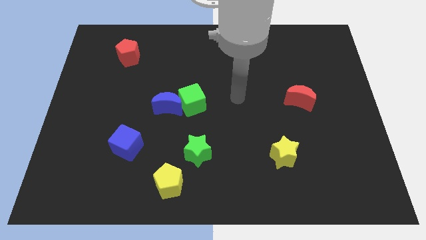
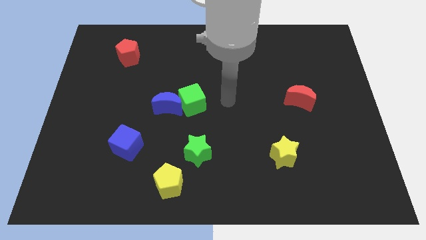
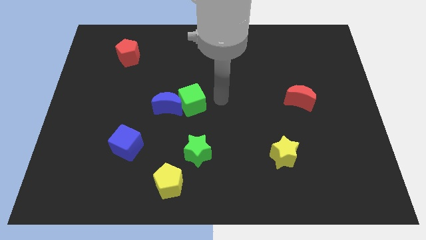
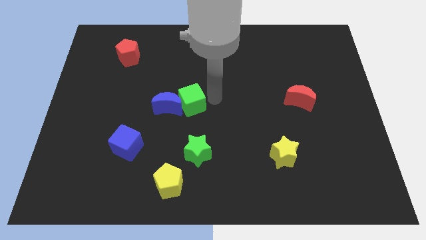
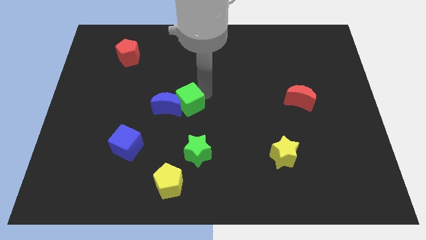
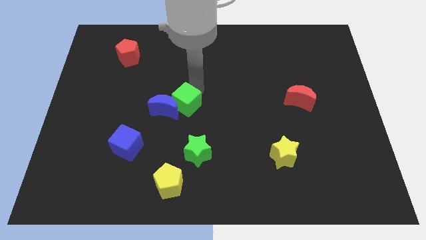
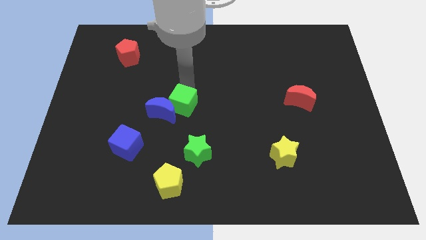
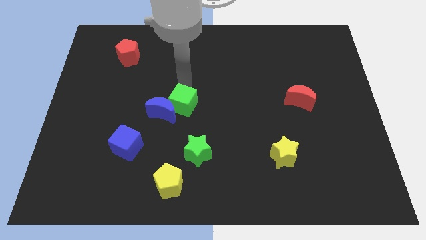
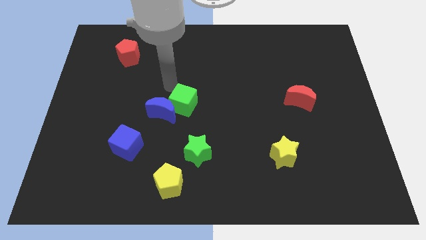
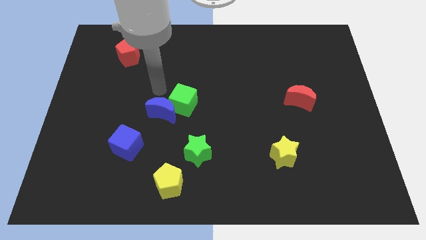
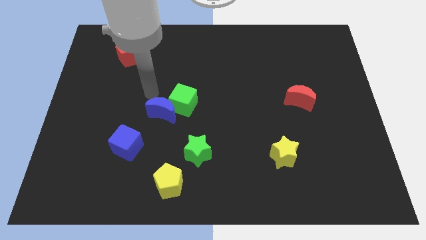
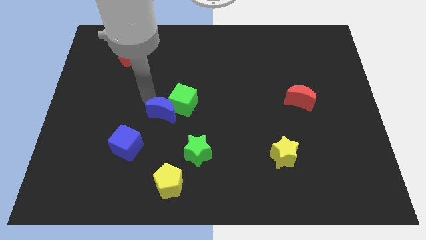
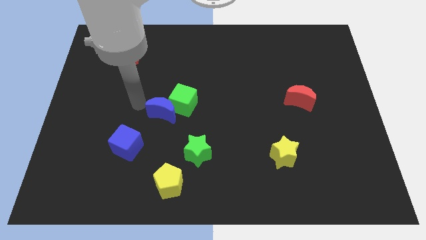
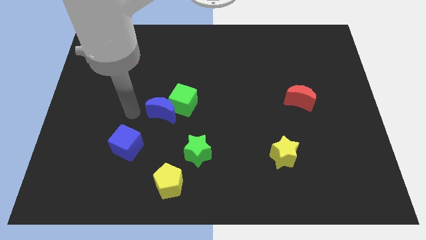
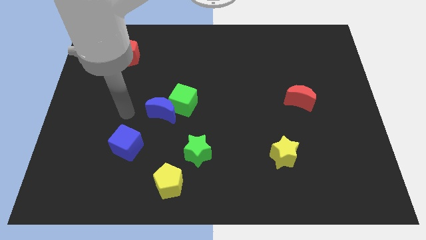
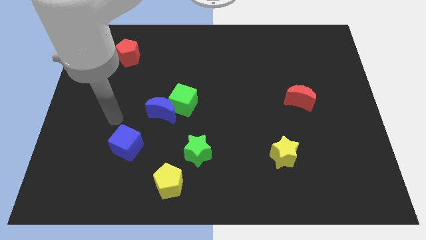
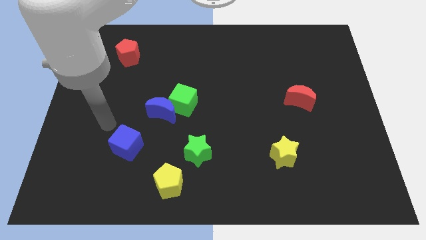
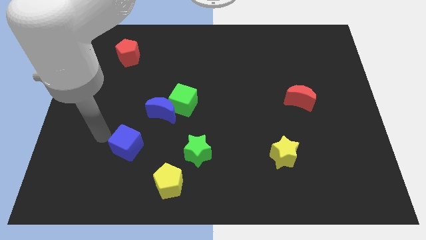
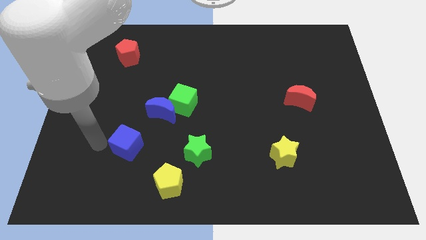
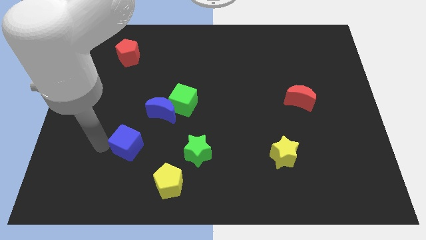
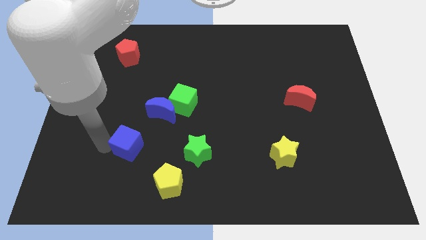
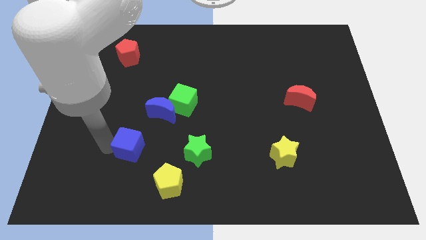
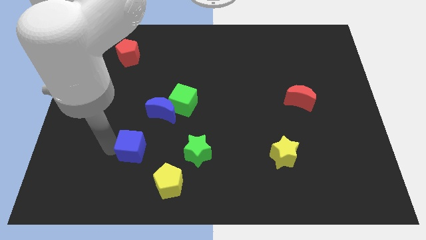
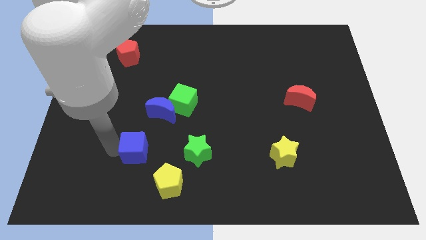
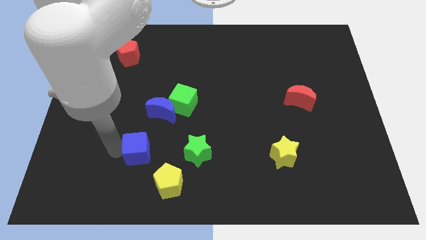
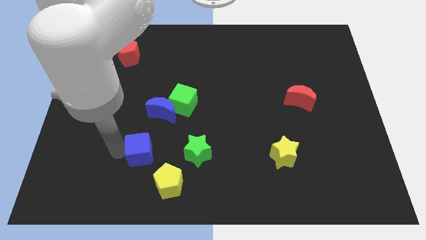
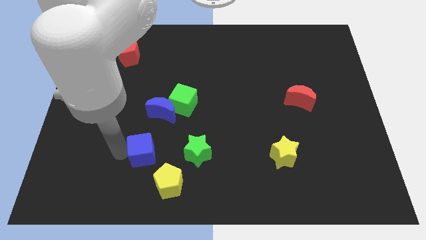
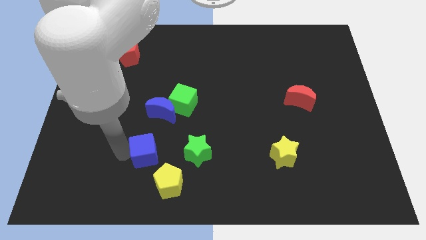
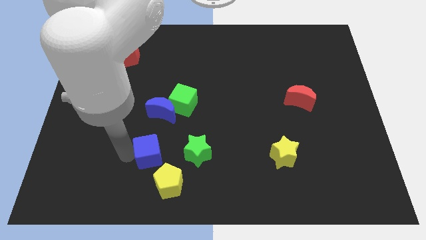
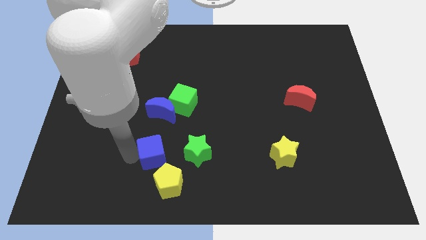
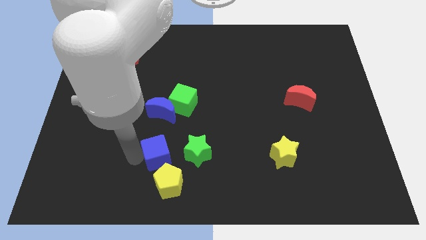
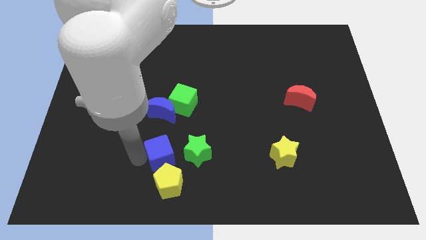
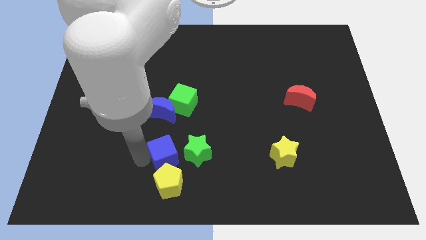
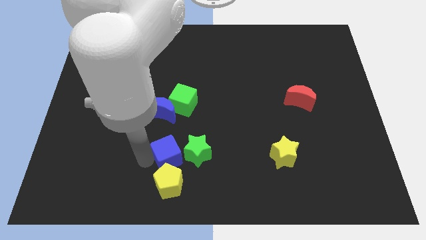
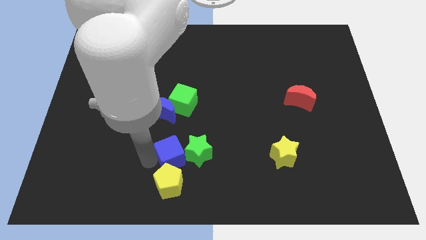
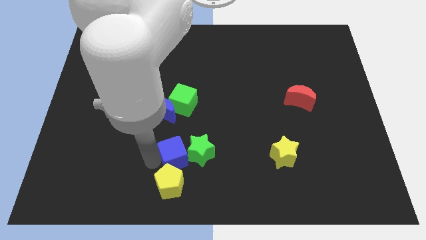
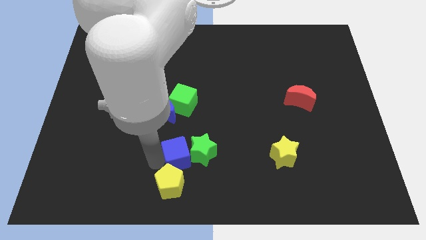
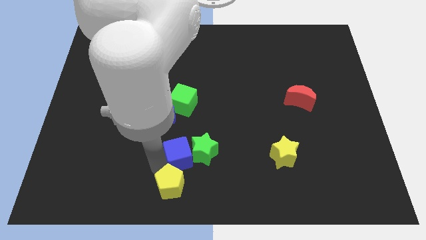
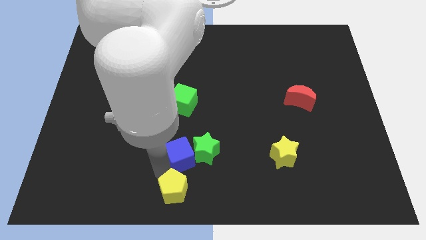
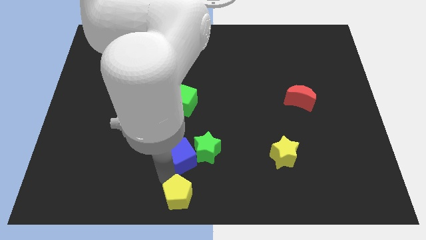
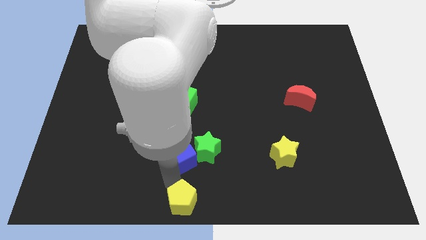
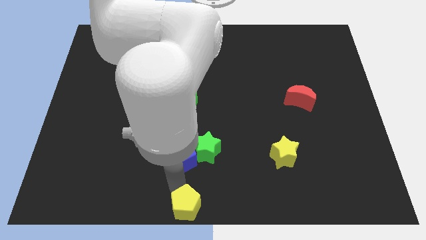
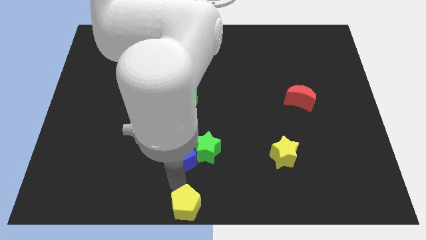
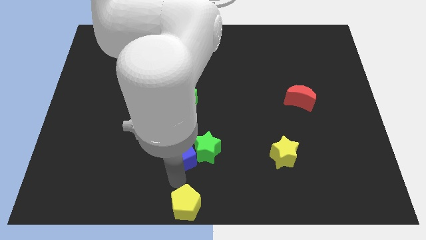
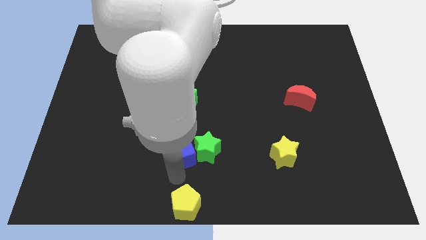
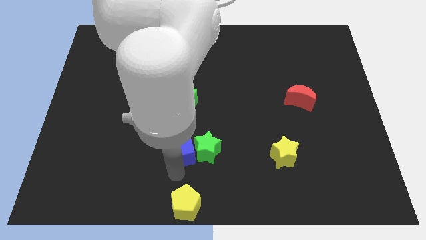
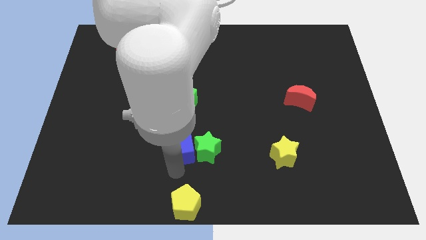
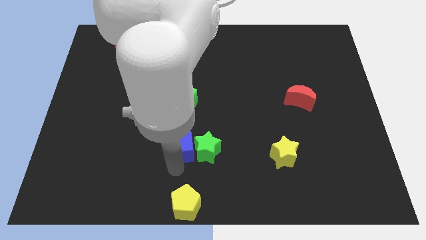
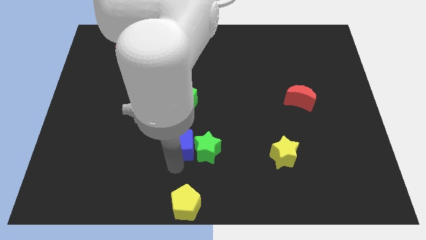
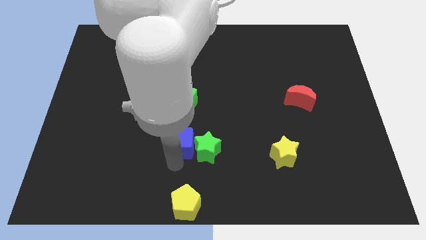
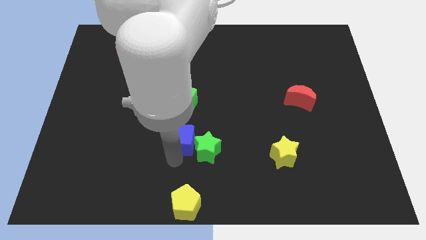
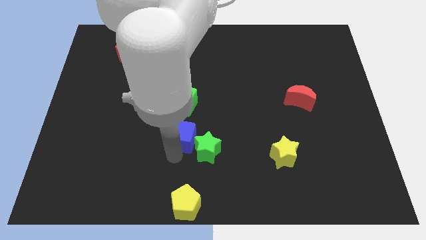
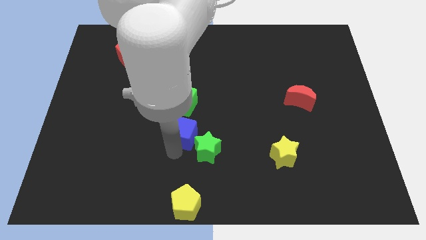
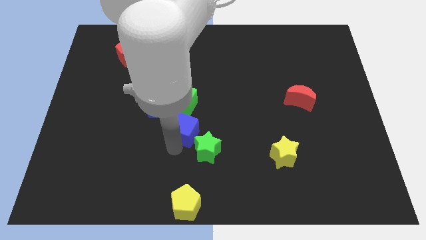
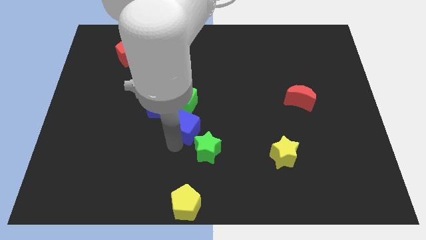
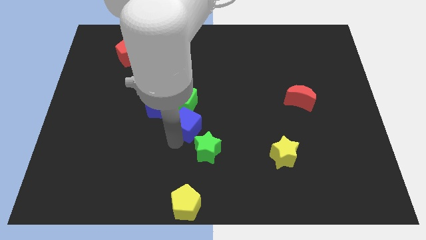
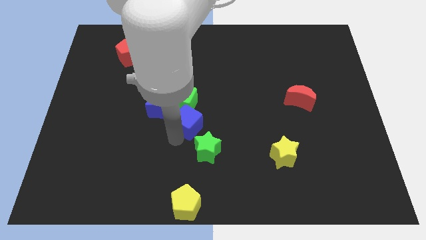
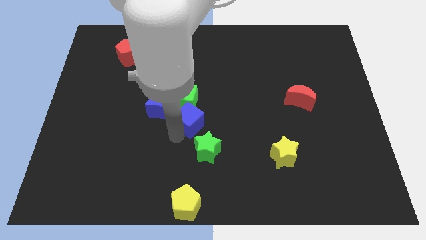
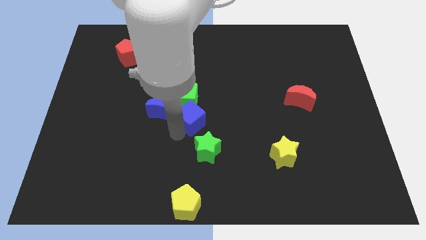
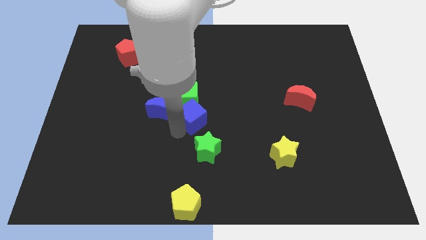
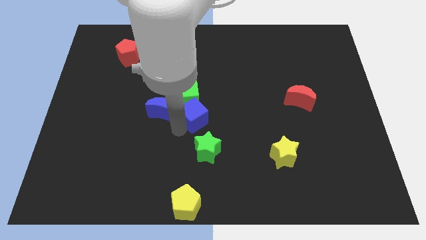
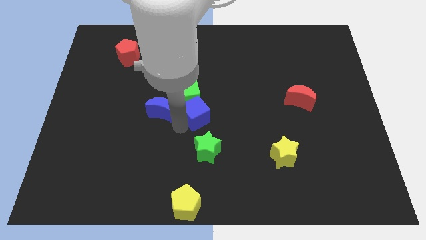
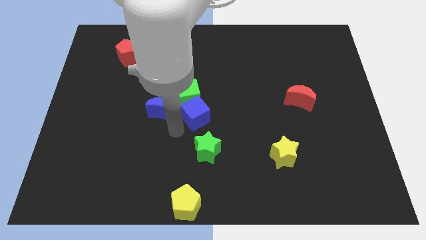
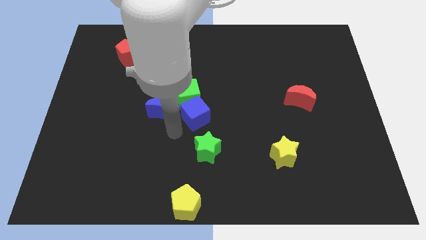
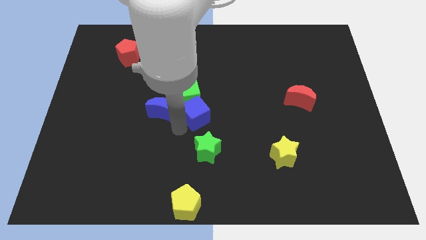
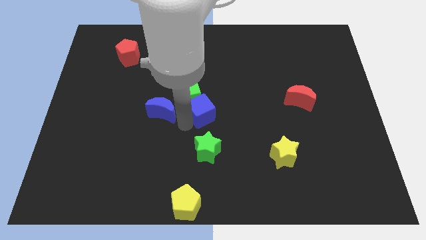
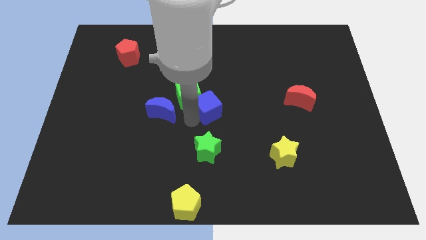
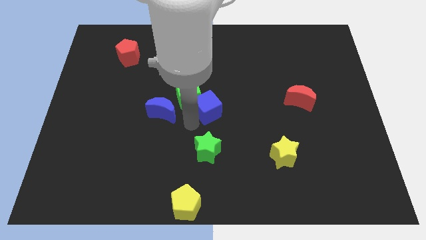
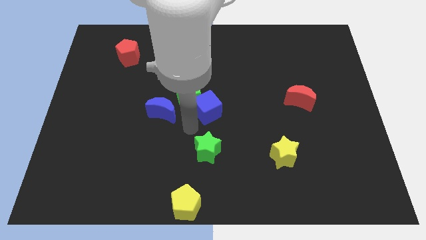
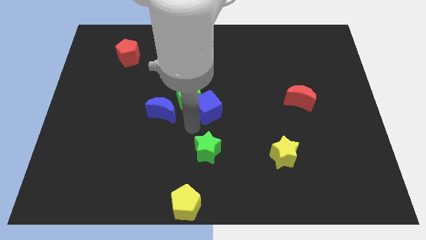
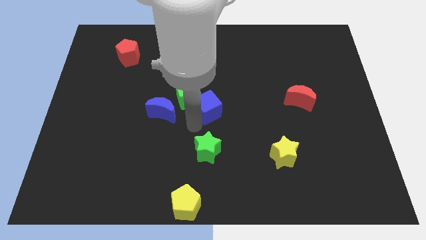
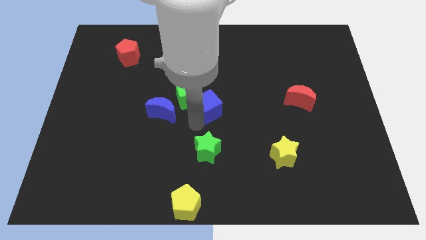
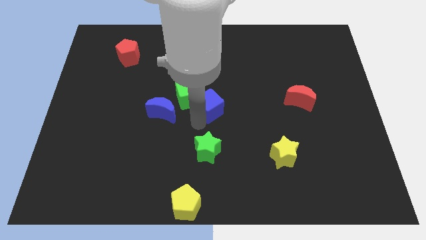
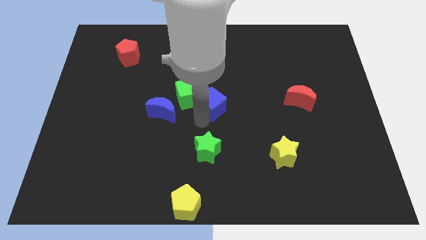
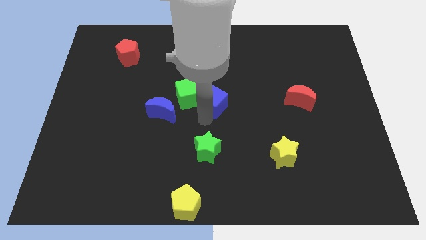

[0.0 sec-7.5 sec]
slide the blue cube diagonally up and right
